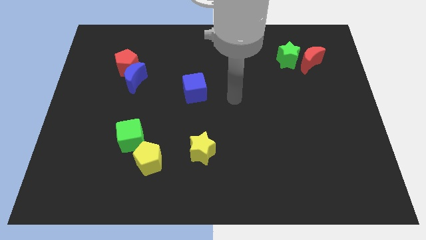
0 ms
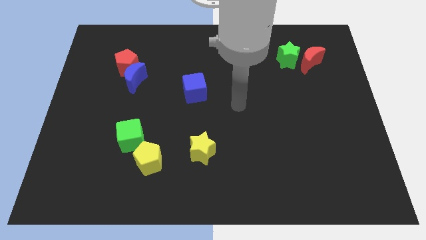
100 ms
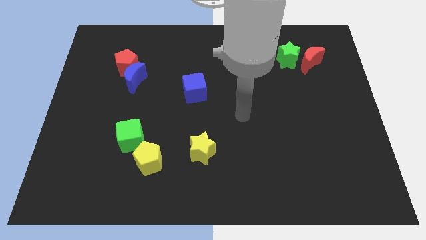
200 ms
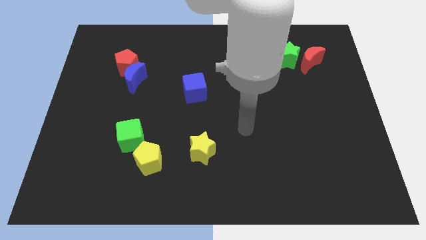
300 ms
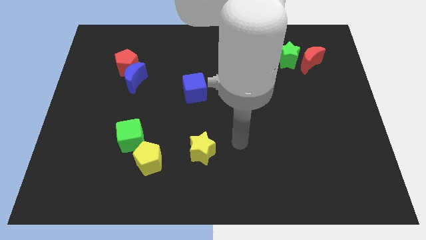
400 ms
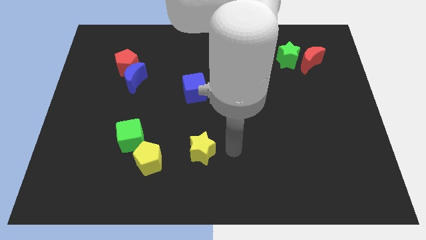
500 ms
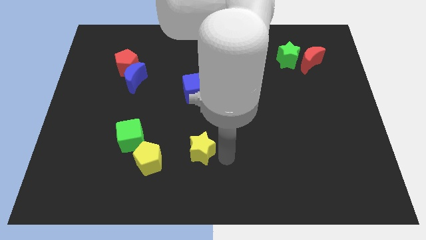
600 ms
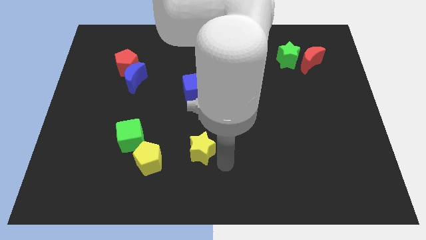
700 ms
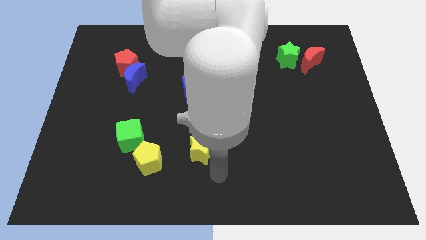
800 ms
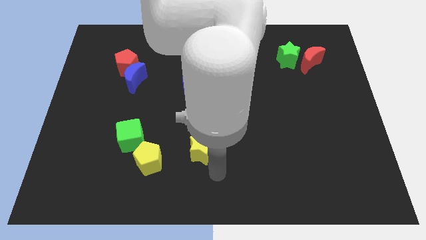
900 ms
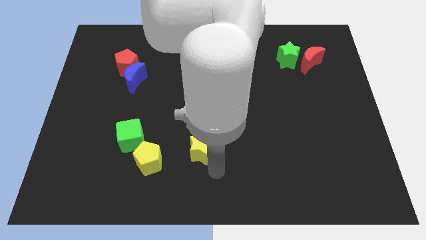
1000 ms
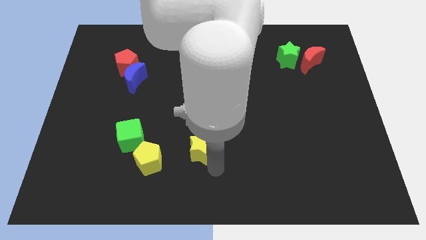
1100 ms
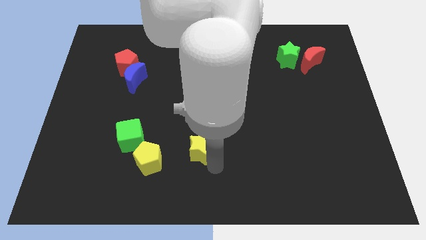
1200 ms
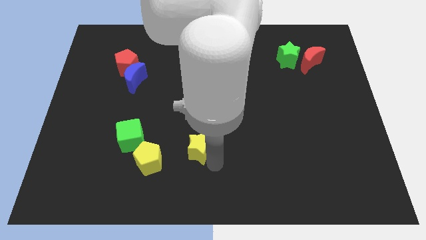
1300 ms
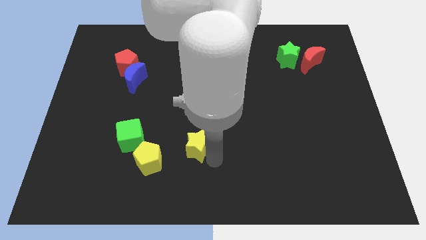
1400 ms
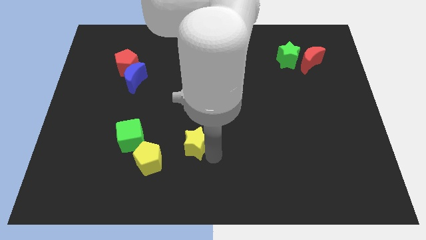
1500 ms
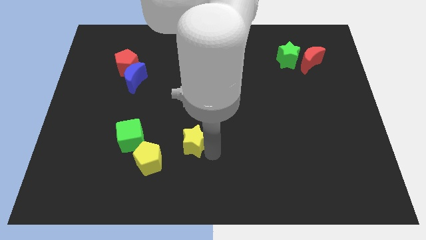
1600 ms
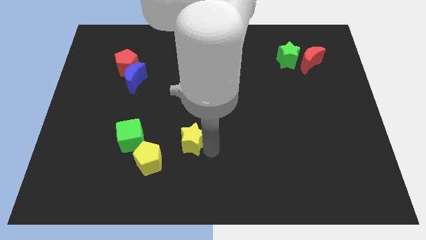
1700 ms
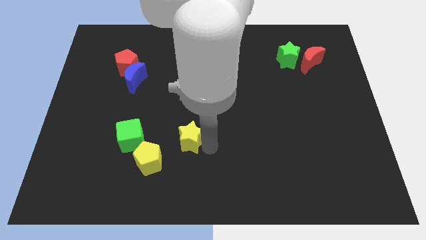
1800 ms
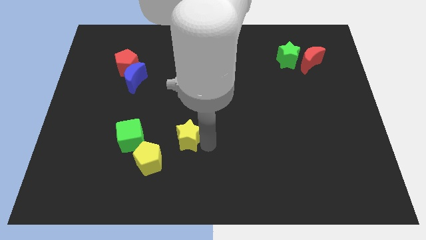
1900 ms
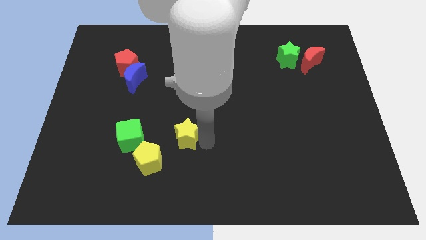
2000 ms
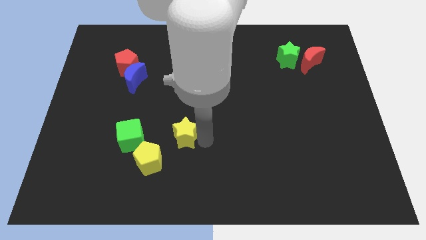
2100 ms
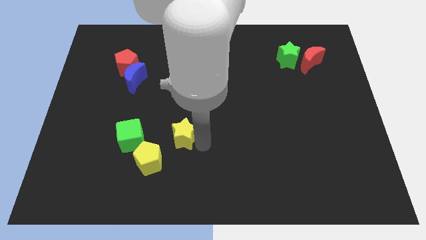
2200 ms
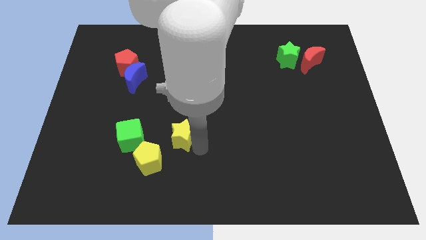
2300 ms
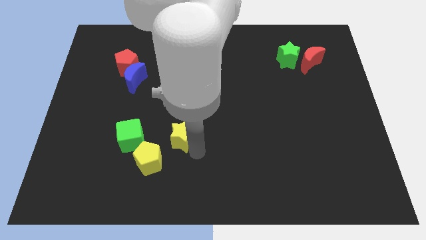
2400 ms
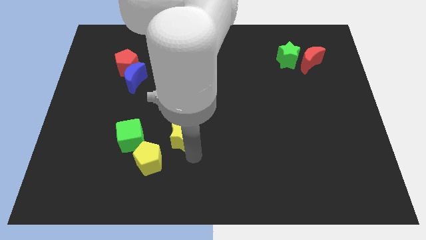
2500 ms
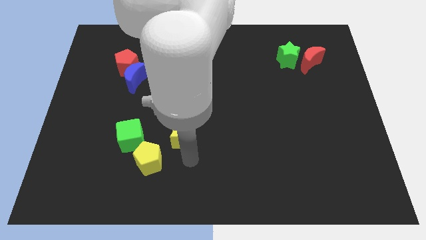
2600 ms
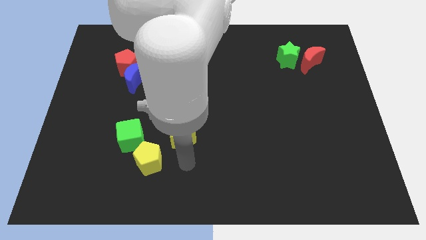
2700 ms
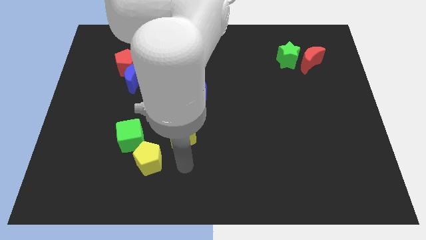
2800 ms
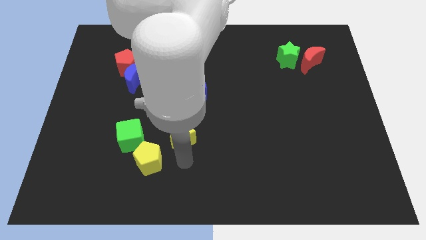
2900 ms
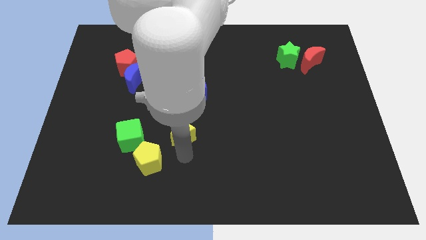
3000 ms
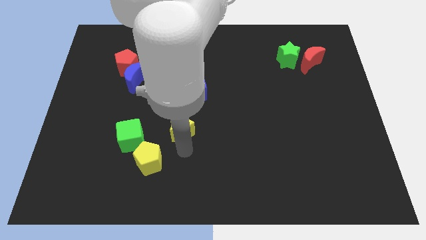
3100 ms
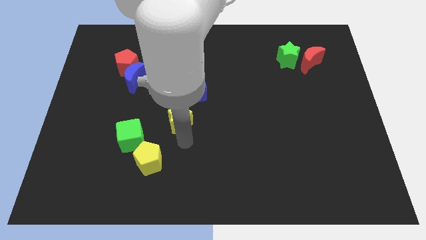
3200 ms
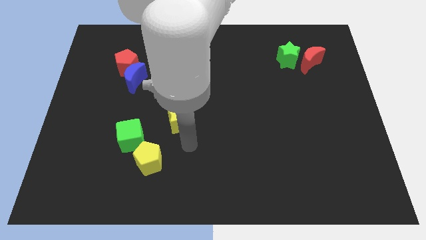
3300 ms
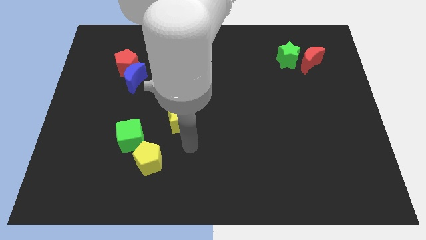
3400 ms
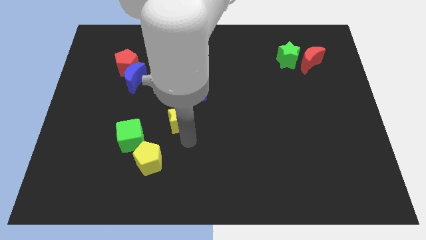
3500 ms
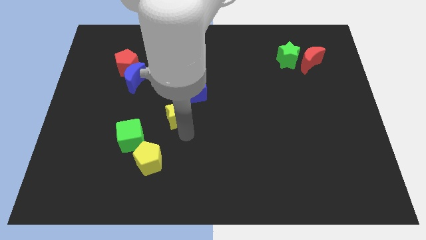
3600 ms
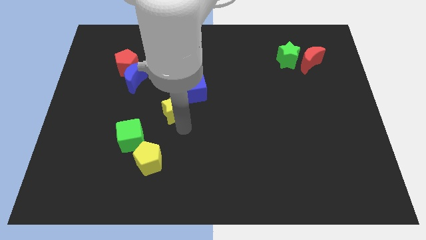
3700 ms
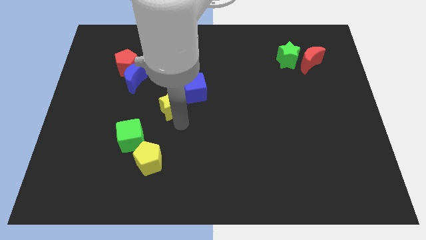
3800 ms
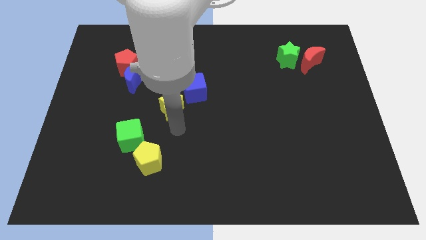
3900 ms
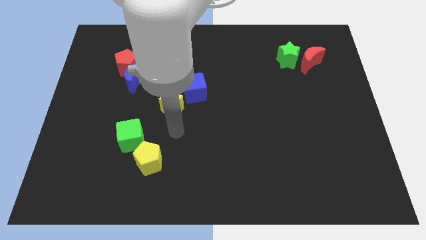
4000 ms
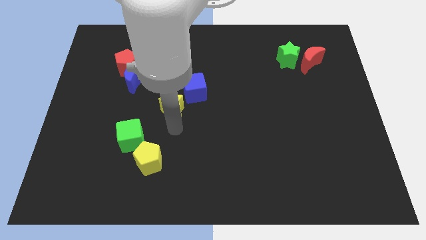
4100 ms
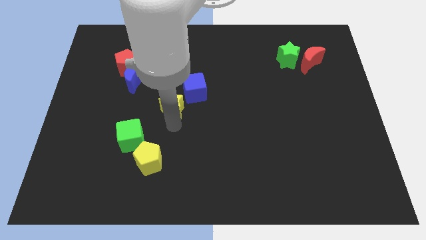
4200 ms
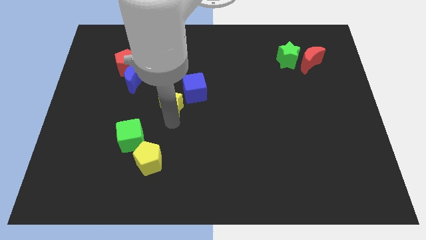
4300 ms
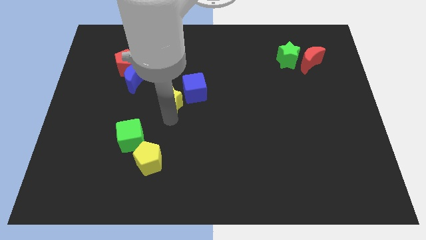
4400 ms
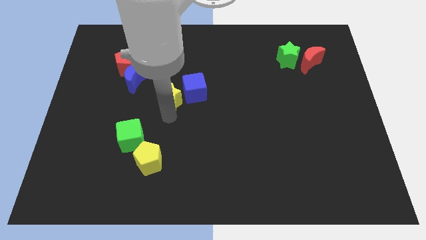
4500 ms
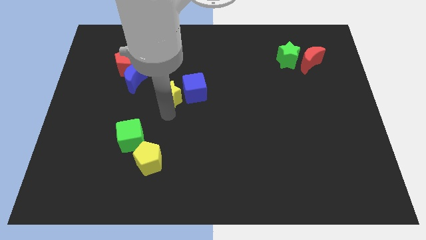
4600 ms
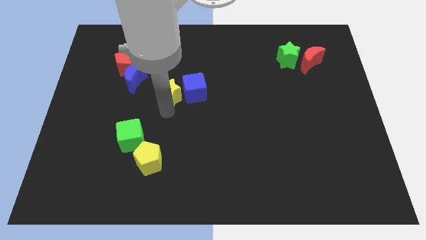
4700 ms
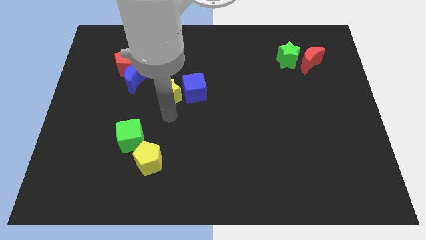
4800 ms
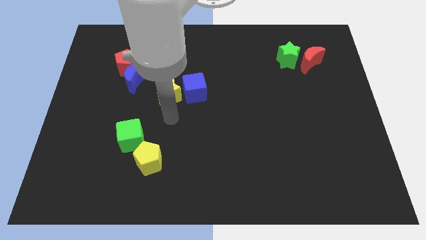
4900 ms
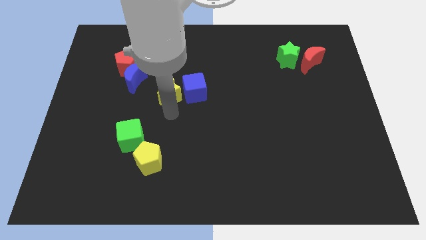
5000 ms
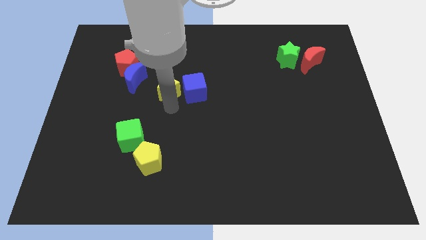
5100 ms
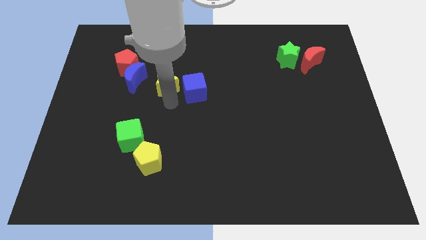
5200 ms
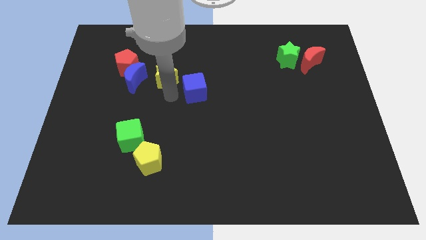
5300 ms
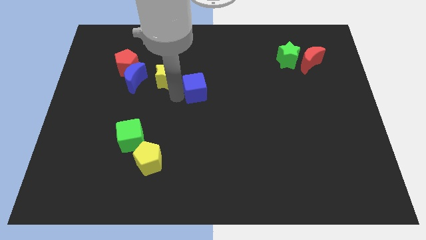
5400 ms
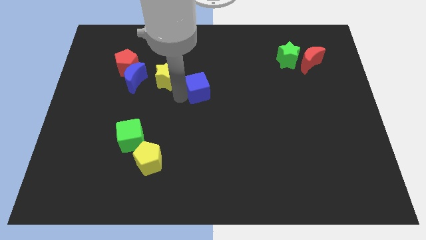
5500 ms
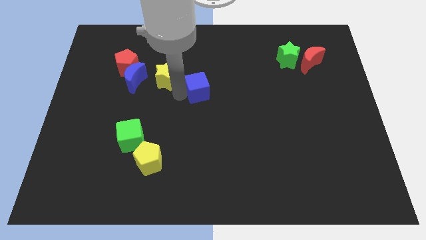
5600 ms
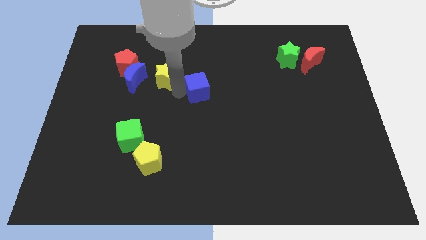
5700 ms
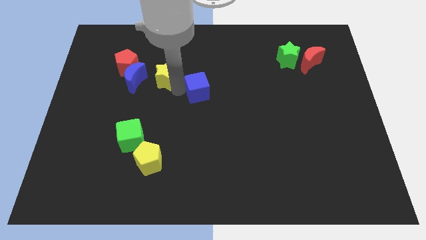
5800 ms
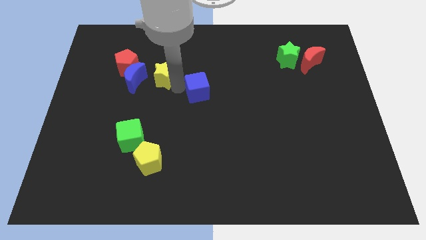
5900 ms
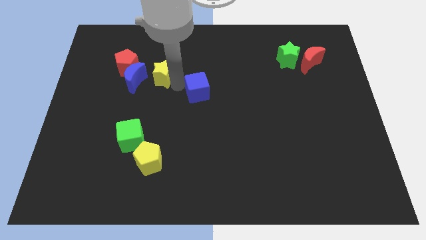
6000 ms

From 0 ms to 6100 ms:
put the yellow star to the top right side of the blue moon

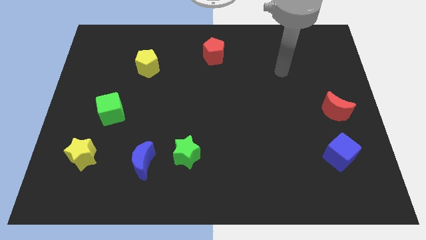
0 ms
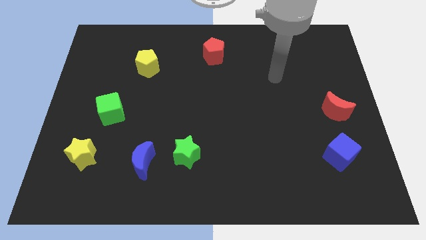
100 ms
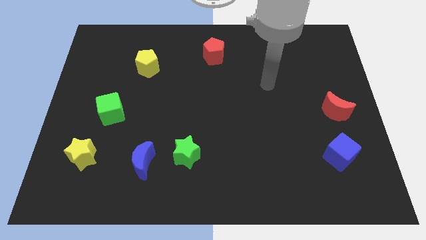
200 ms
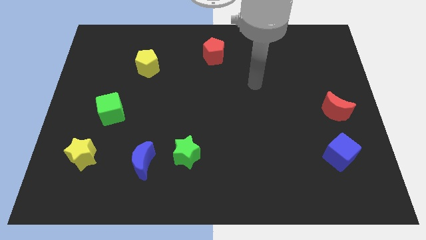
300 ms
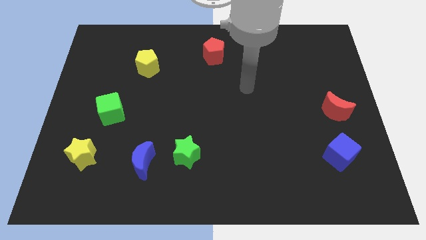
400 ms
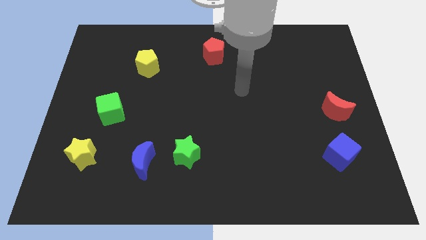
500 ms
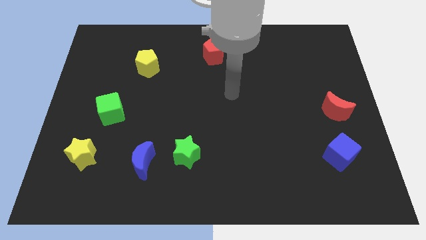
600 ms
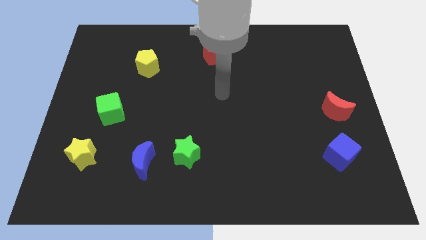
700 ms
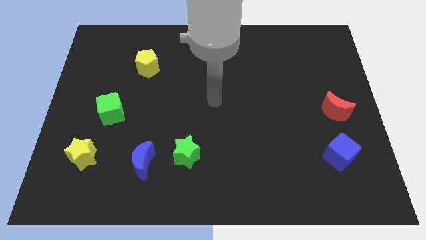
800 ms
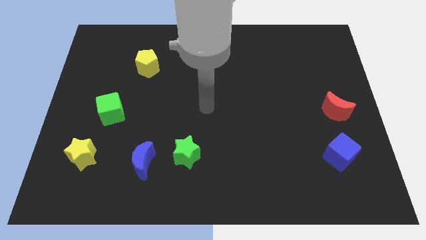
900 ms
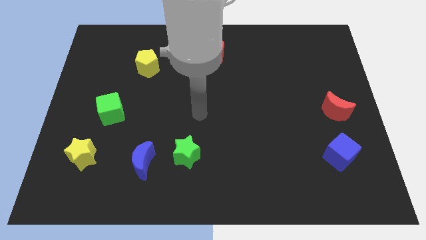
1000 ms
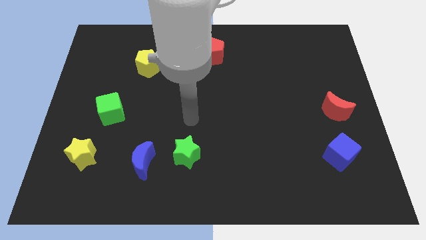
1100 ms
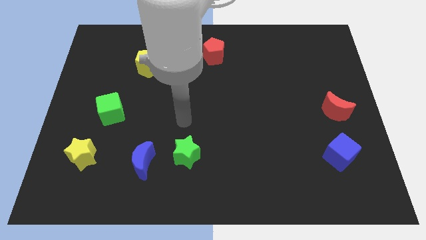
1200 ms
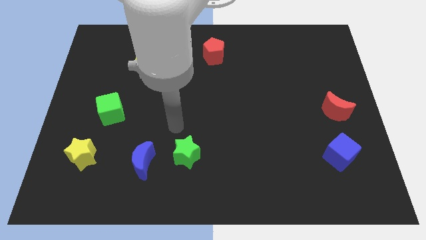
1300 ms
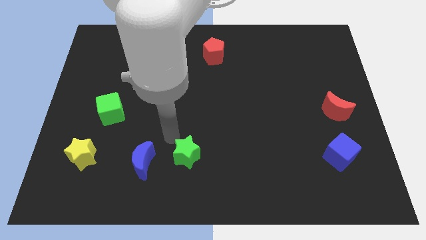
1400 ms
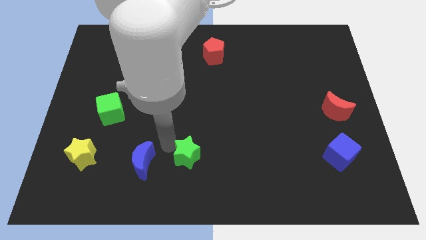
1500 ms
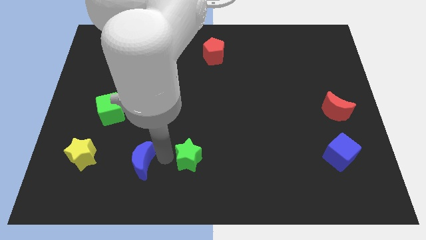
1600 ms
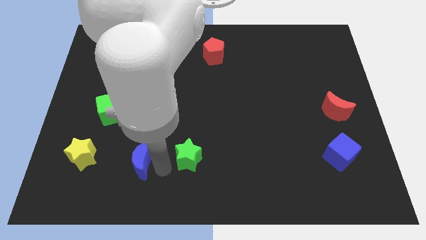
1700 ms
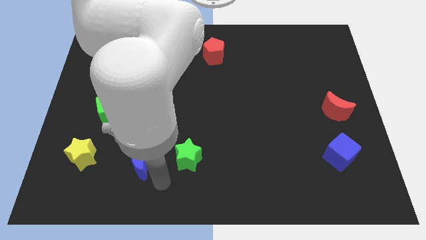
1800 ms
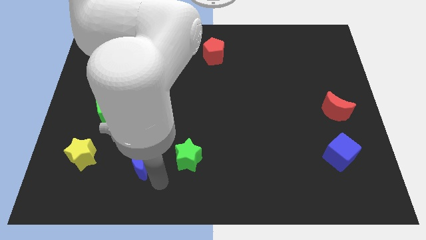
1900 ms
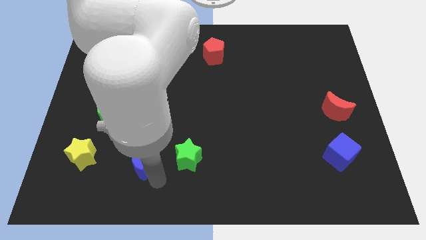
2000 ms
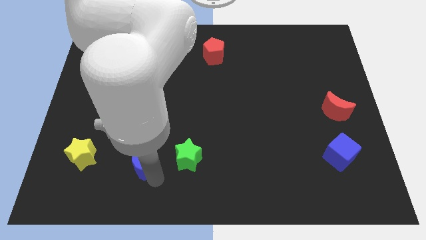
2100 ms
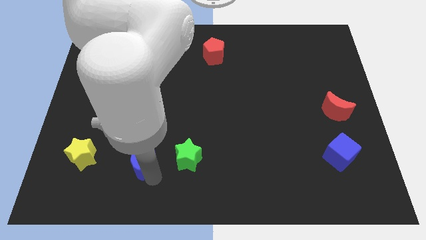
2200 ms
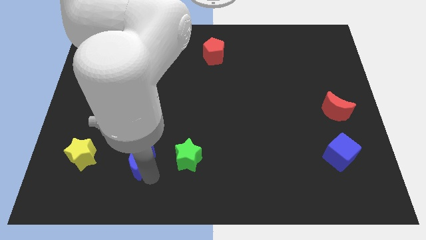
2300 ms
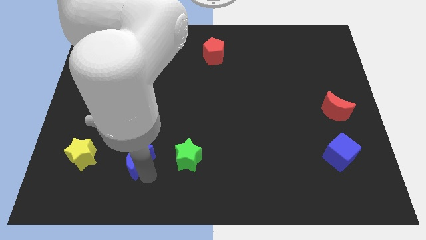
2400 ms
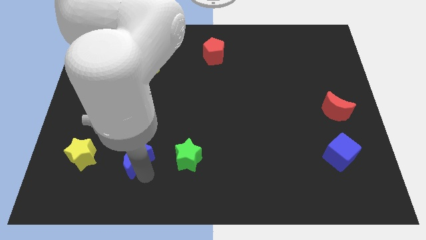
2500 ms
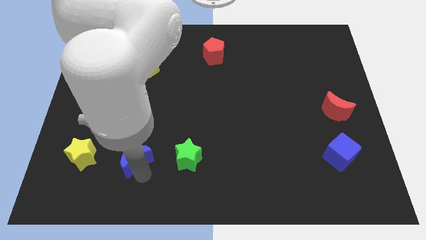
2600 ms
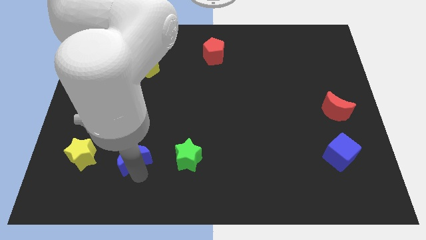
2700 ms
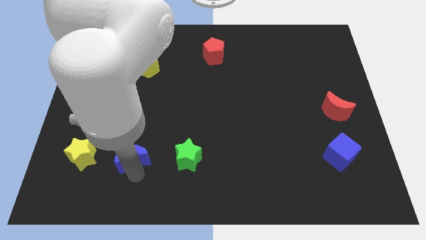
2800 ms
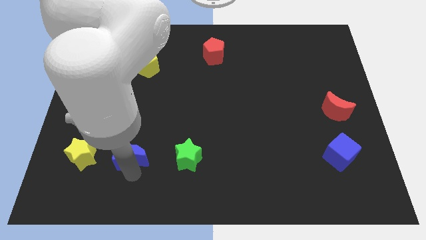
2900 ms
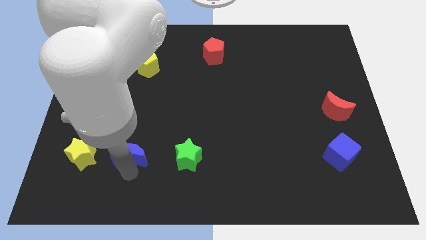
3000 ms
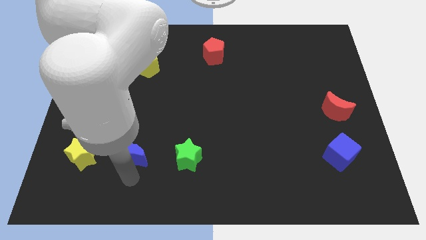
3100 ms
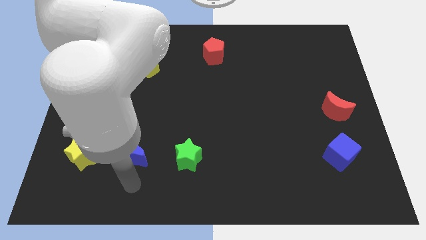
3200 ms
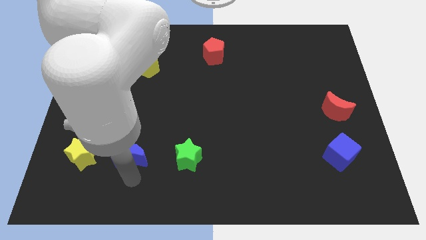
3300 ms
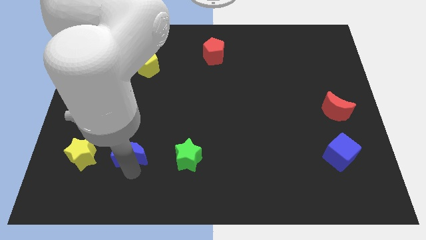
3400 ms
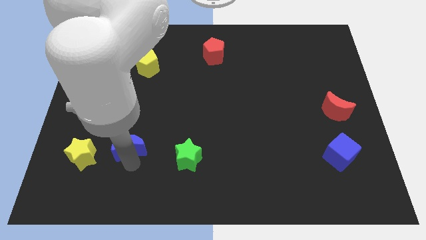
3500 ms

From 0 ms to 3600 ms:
put the blue moon to the bottom right side of the green cube
